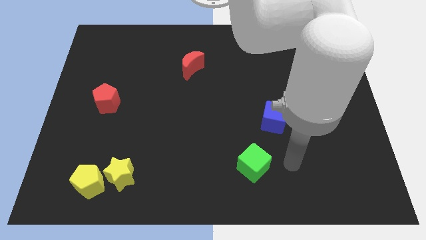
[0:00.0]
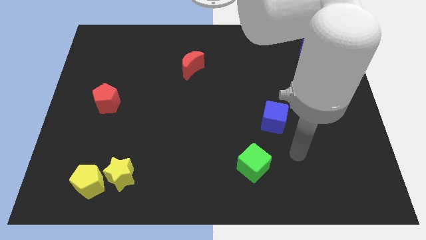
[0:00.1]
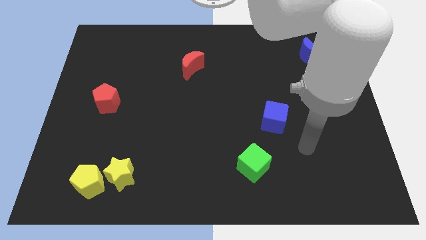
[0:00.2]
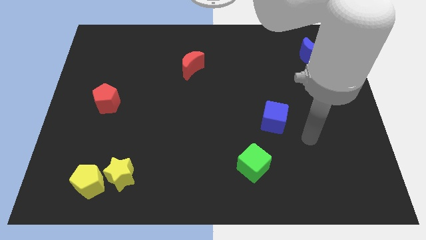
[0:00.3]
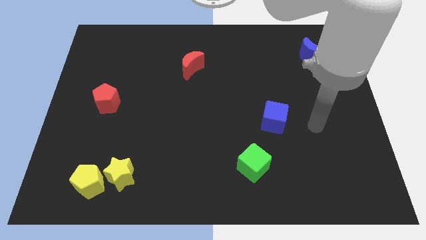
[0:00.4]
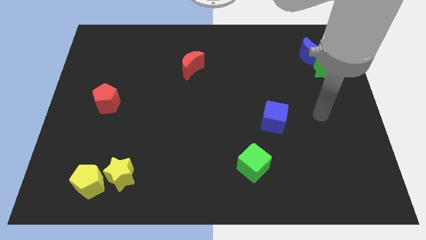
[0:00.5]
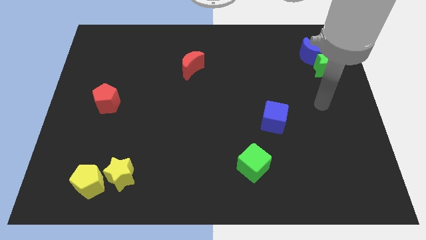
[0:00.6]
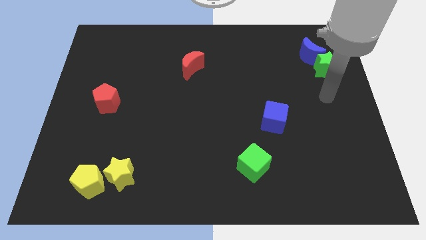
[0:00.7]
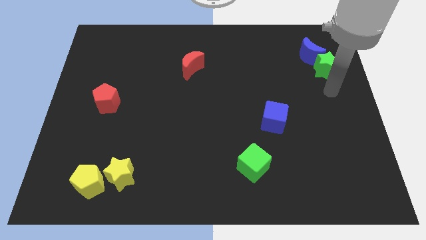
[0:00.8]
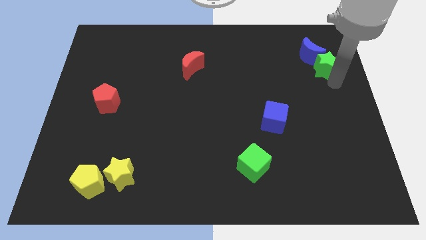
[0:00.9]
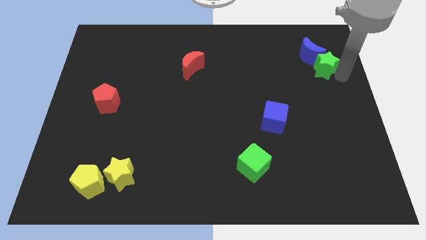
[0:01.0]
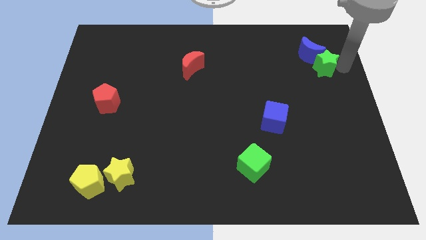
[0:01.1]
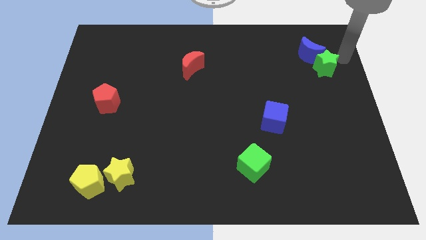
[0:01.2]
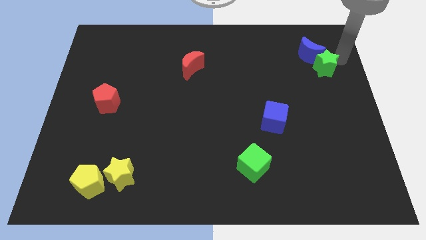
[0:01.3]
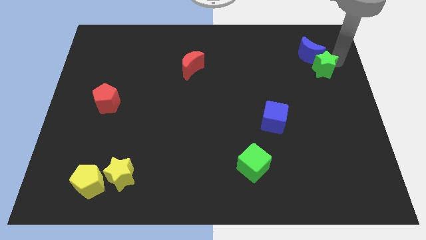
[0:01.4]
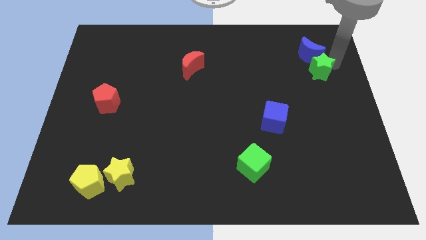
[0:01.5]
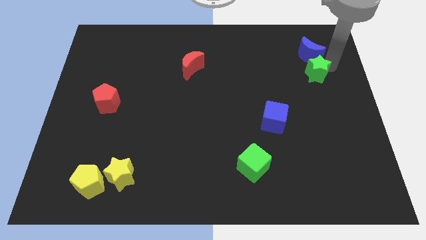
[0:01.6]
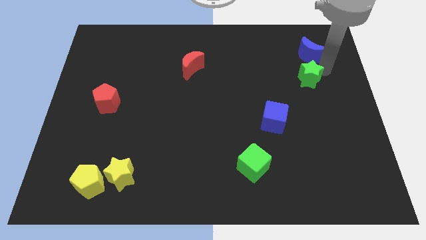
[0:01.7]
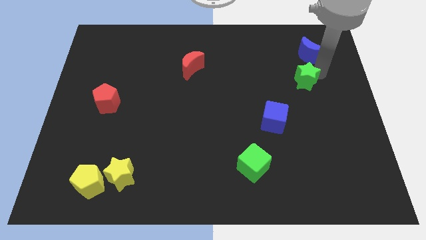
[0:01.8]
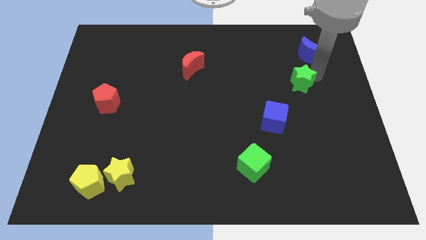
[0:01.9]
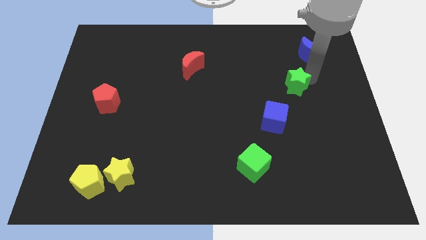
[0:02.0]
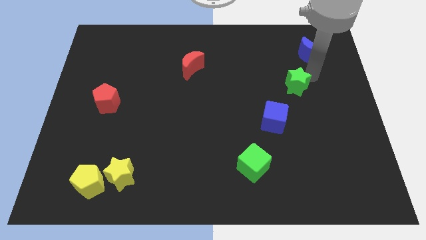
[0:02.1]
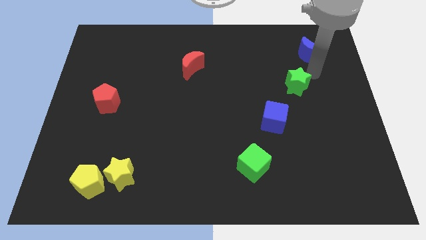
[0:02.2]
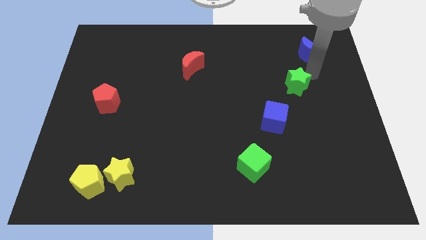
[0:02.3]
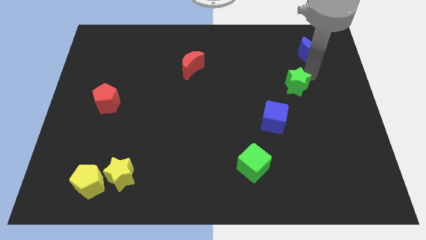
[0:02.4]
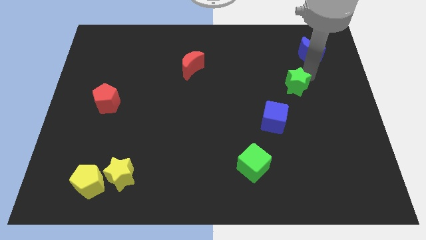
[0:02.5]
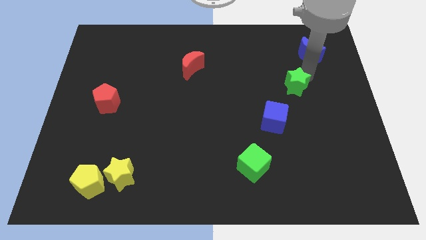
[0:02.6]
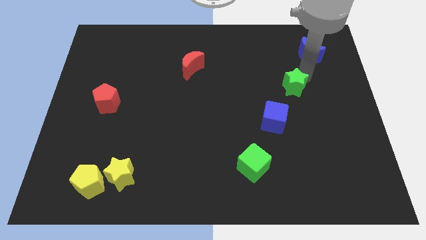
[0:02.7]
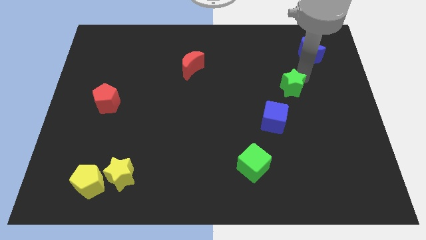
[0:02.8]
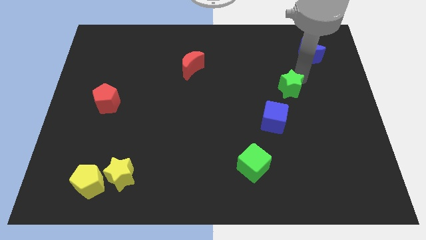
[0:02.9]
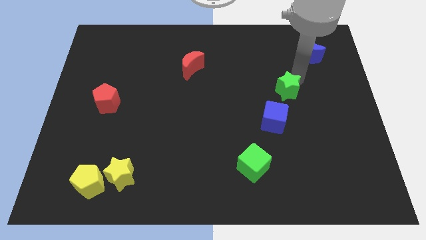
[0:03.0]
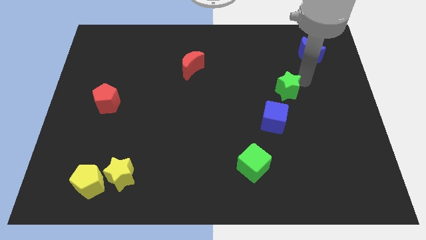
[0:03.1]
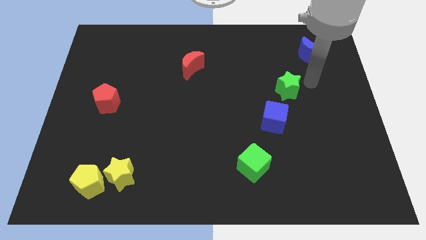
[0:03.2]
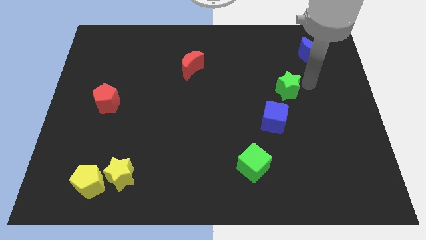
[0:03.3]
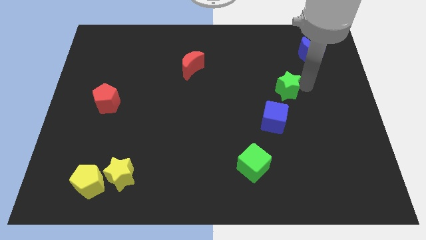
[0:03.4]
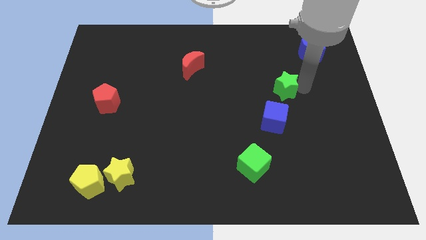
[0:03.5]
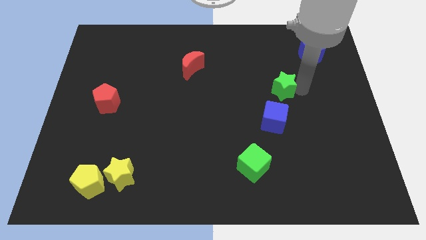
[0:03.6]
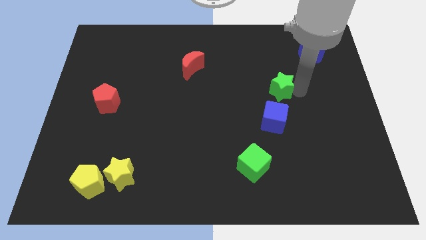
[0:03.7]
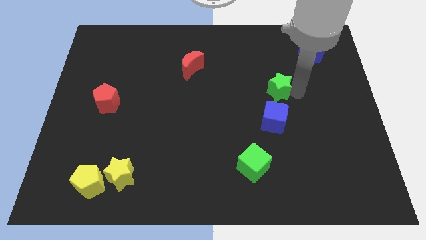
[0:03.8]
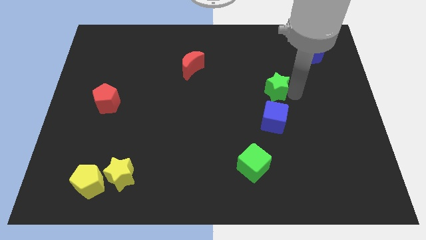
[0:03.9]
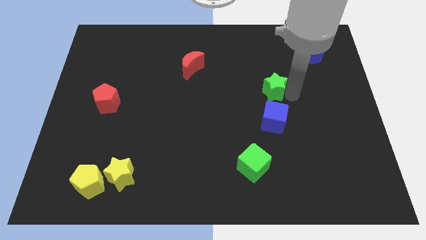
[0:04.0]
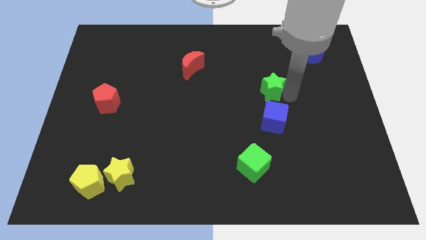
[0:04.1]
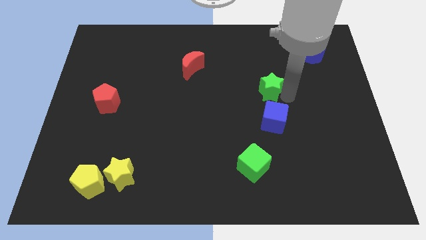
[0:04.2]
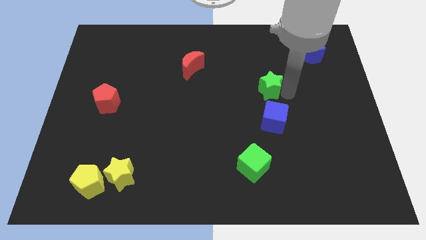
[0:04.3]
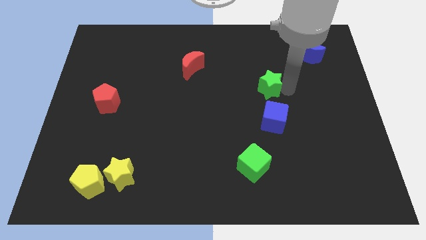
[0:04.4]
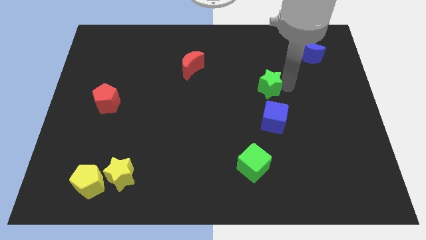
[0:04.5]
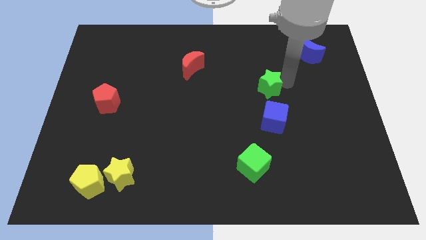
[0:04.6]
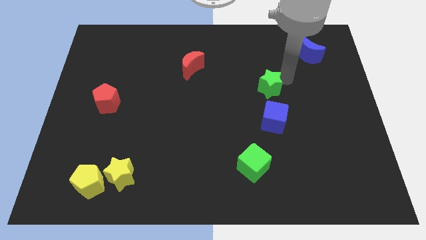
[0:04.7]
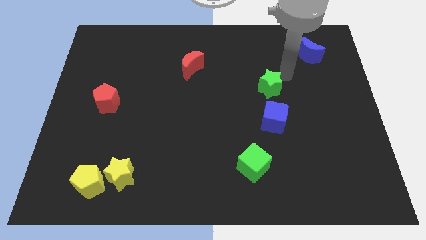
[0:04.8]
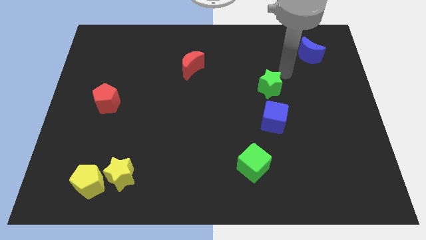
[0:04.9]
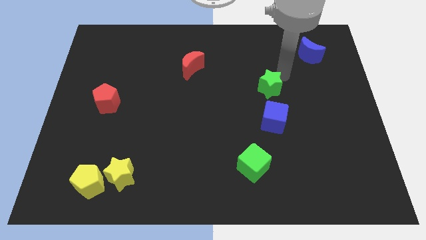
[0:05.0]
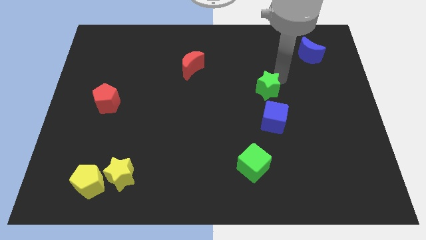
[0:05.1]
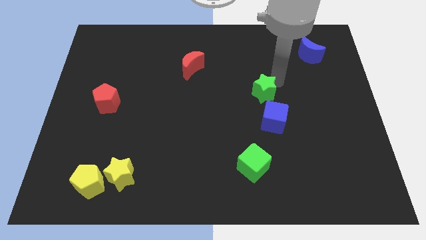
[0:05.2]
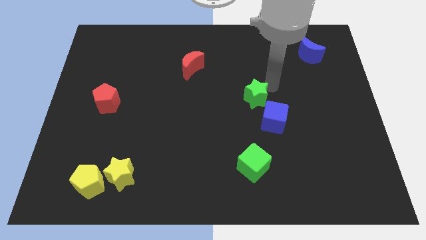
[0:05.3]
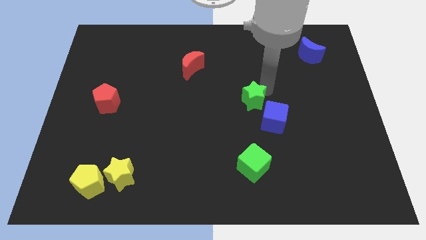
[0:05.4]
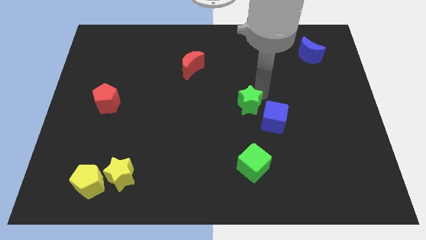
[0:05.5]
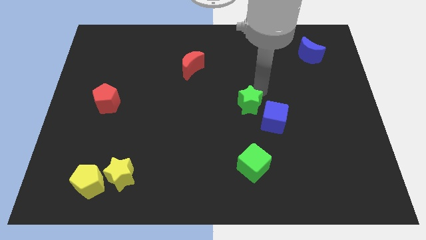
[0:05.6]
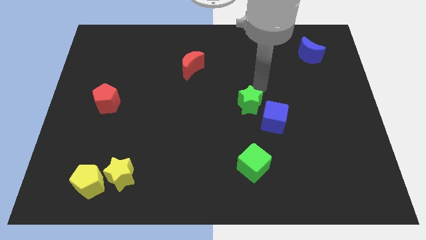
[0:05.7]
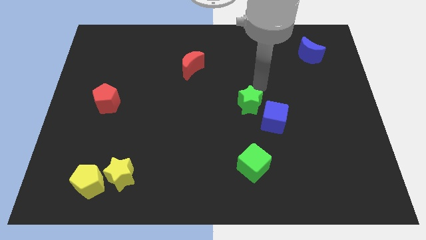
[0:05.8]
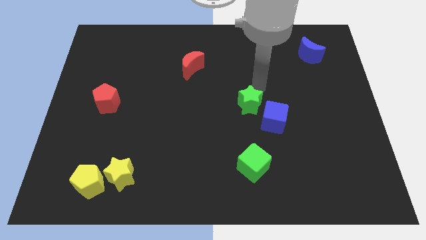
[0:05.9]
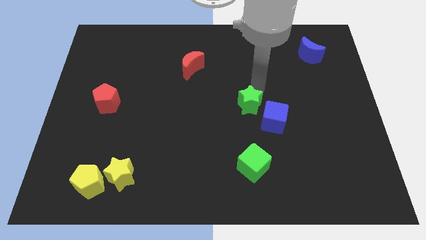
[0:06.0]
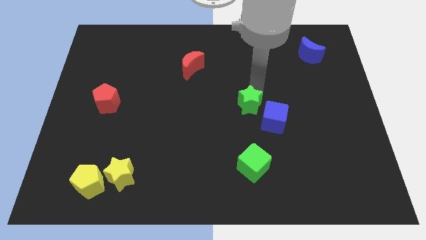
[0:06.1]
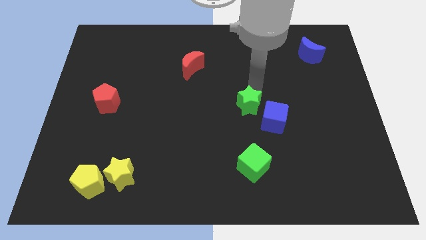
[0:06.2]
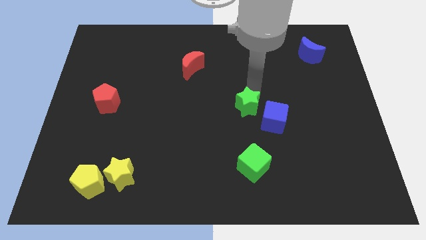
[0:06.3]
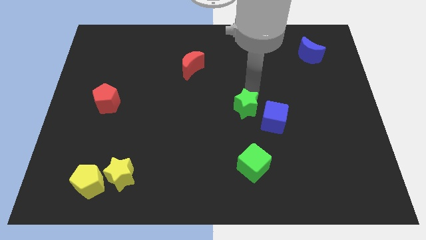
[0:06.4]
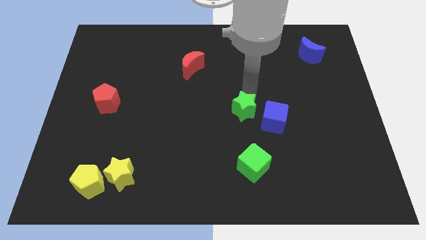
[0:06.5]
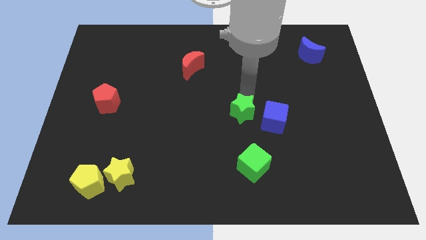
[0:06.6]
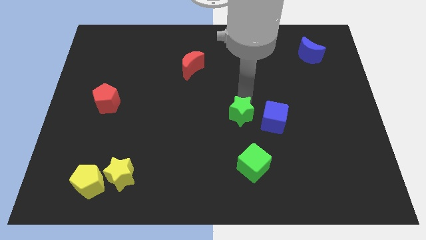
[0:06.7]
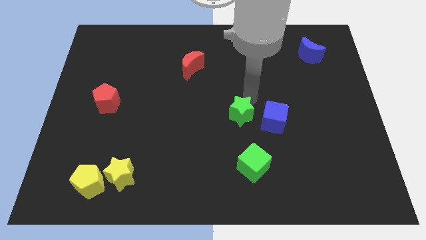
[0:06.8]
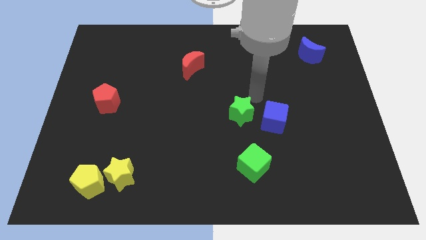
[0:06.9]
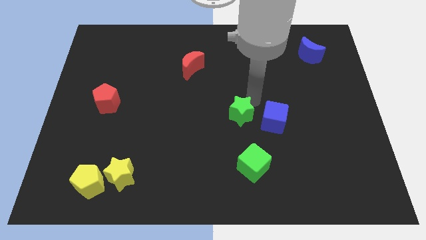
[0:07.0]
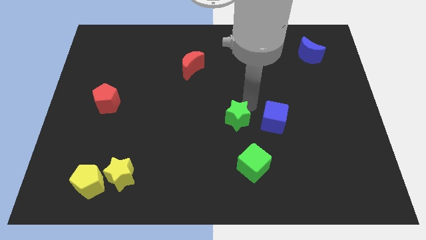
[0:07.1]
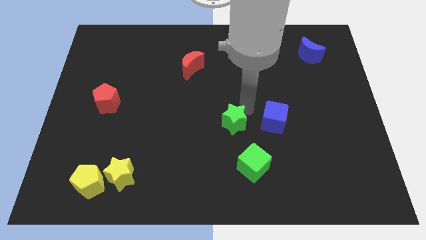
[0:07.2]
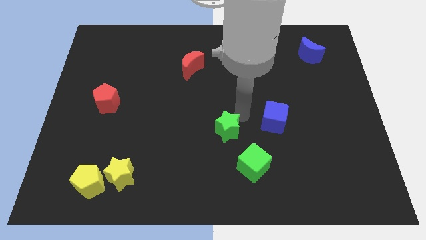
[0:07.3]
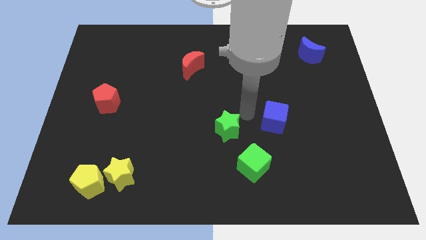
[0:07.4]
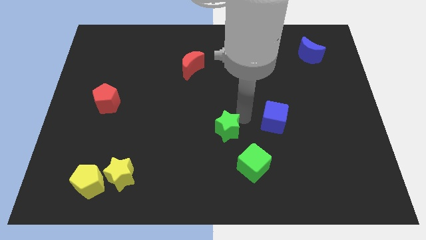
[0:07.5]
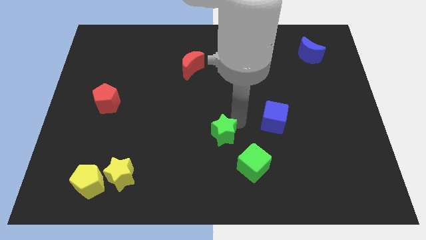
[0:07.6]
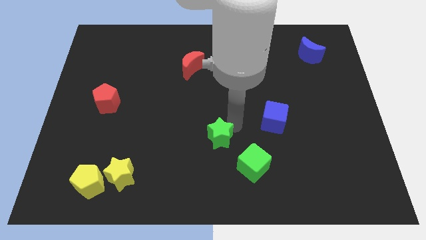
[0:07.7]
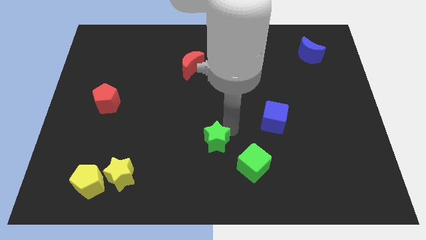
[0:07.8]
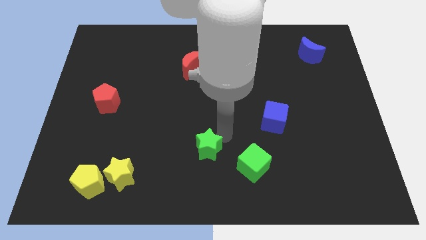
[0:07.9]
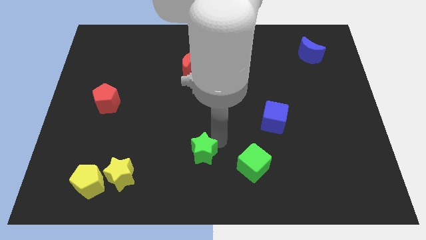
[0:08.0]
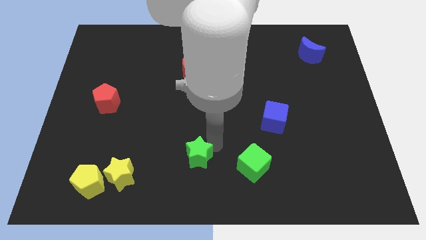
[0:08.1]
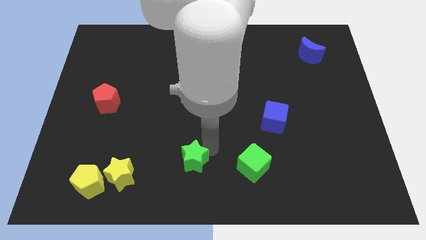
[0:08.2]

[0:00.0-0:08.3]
push the green star to the right side of the yellow star
